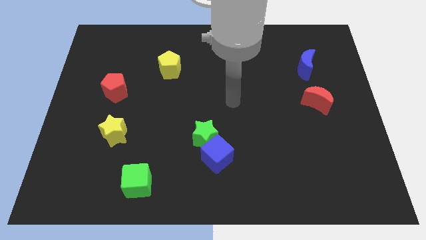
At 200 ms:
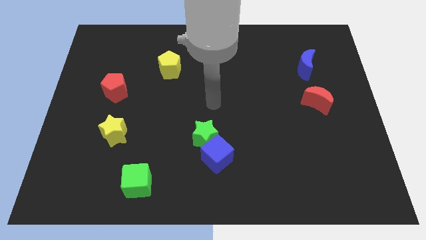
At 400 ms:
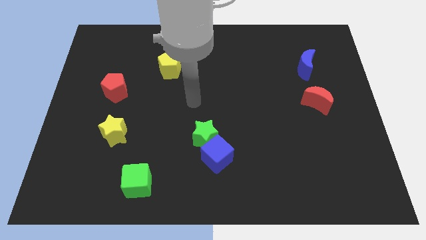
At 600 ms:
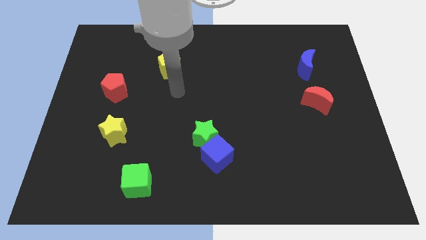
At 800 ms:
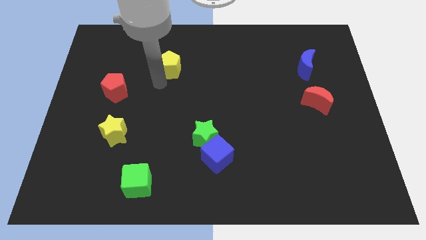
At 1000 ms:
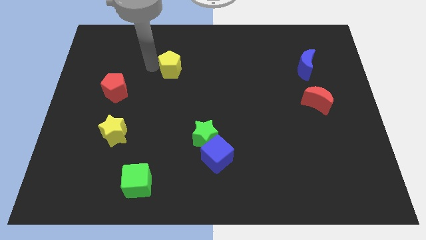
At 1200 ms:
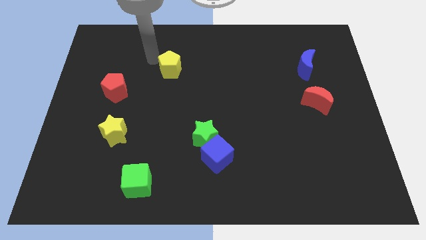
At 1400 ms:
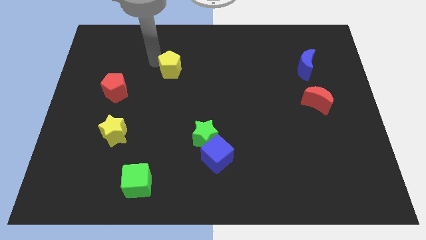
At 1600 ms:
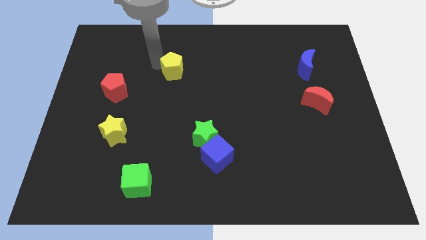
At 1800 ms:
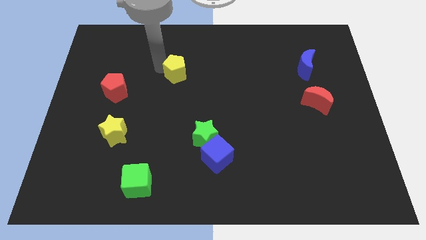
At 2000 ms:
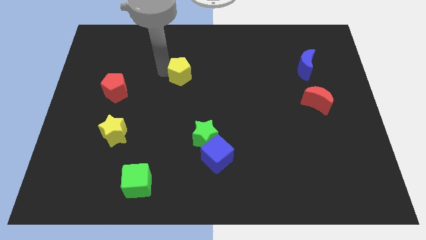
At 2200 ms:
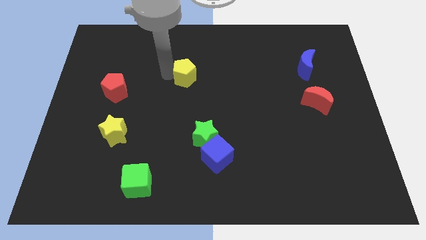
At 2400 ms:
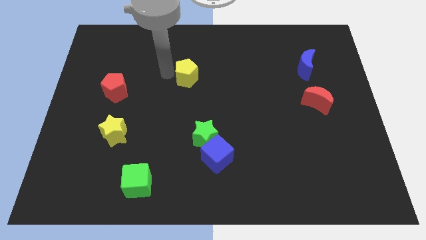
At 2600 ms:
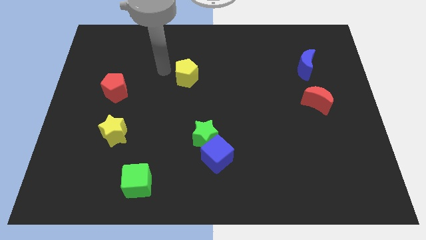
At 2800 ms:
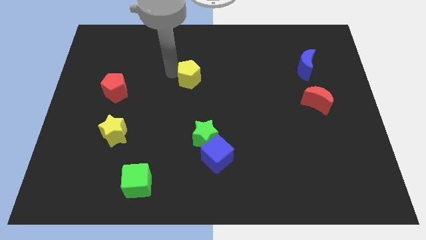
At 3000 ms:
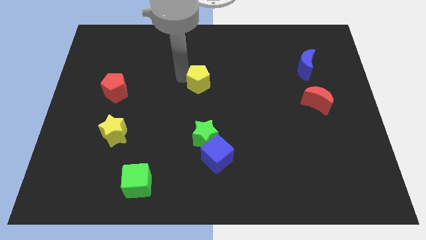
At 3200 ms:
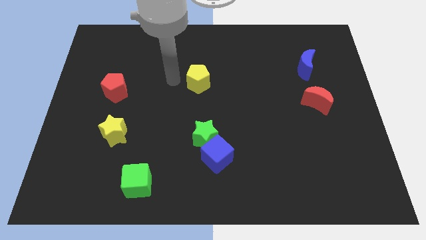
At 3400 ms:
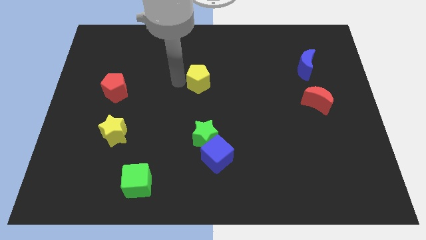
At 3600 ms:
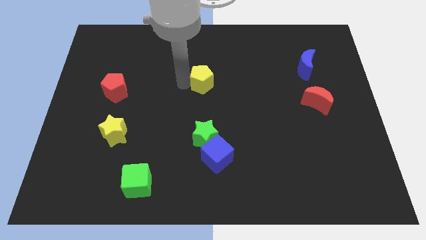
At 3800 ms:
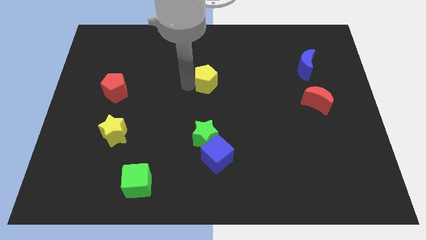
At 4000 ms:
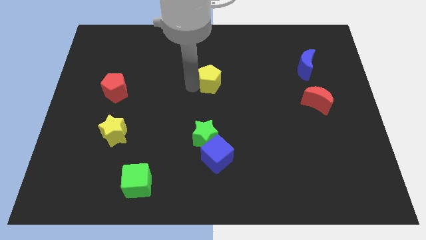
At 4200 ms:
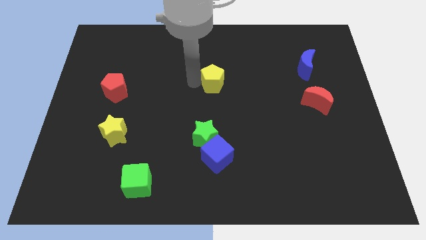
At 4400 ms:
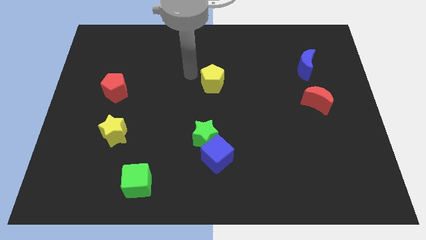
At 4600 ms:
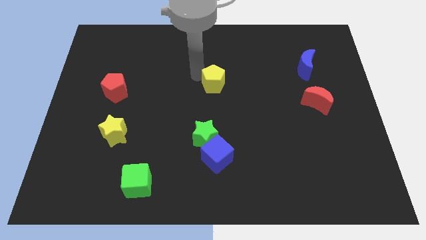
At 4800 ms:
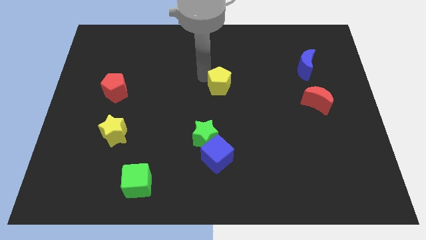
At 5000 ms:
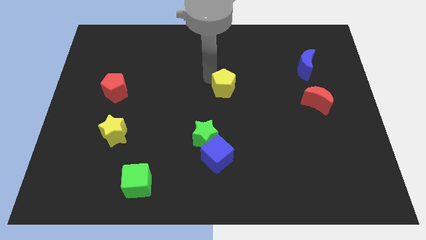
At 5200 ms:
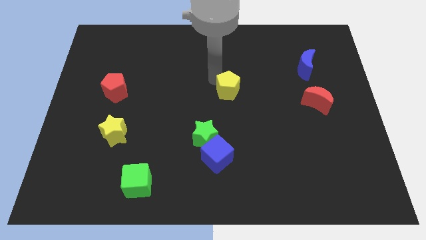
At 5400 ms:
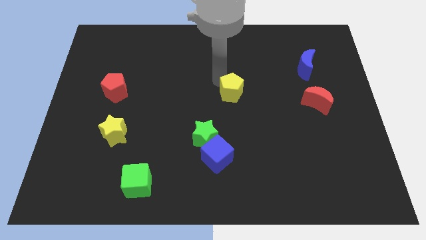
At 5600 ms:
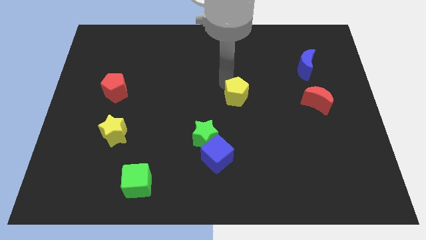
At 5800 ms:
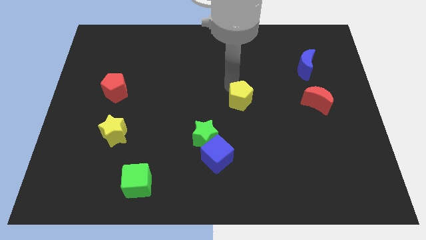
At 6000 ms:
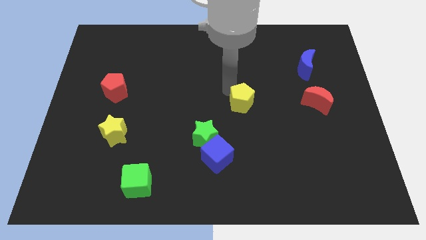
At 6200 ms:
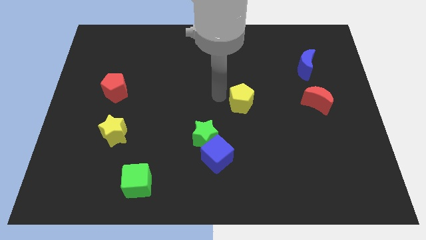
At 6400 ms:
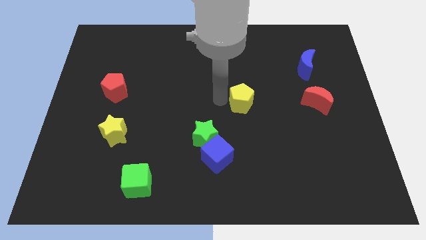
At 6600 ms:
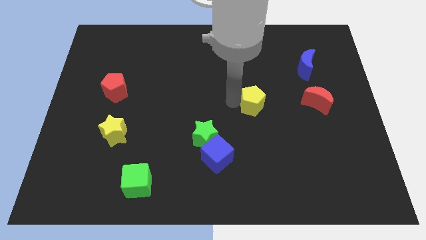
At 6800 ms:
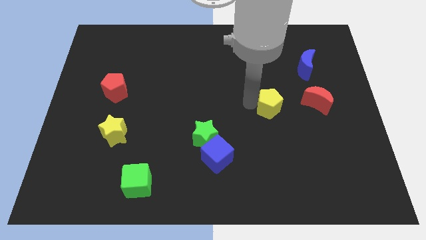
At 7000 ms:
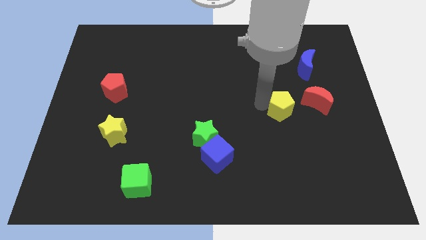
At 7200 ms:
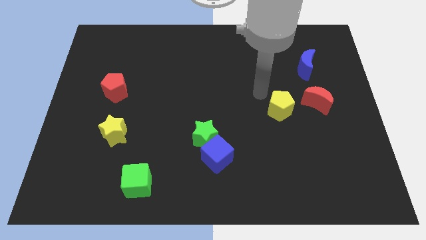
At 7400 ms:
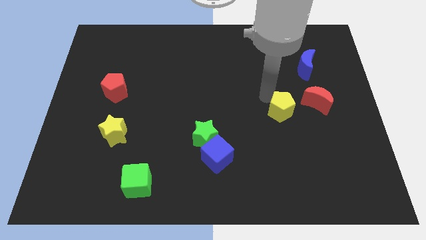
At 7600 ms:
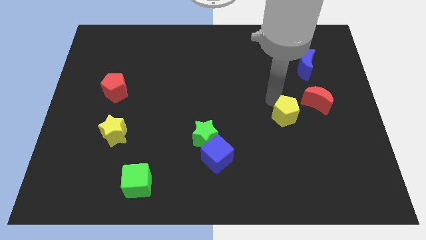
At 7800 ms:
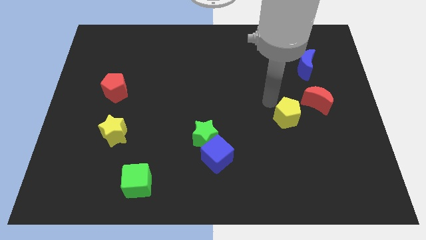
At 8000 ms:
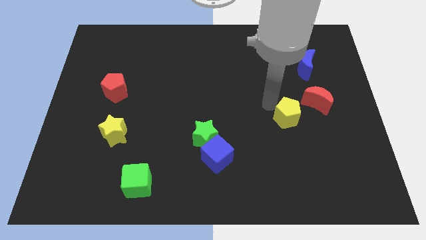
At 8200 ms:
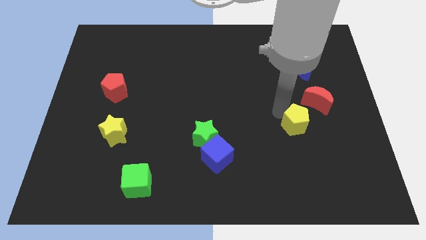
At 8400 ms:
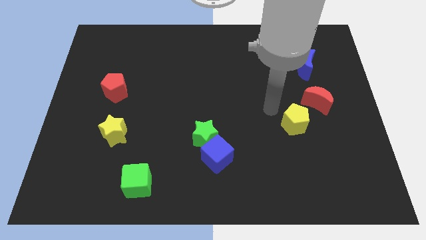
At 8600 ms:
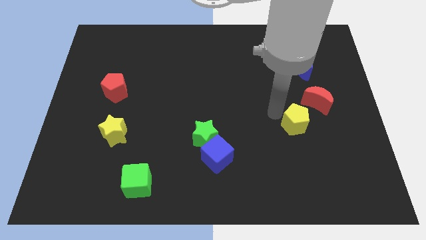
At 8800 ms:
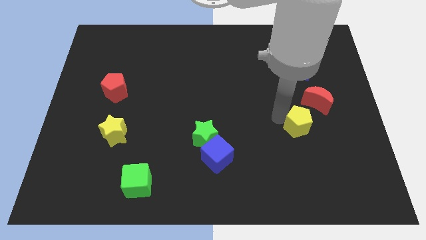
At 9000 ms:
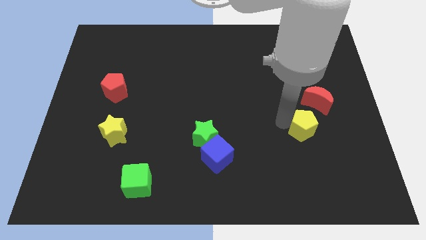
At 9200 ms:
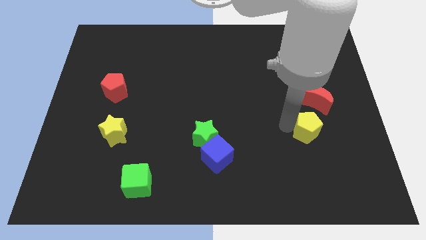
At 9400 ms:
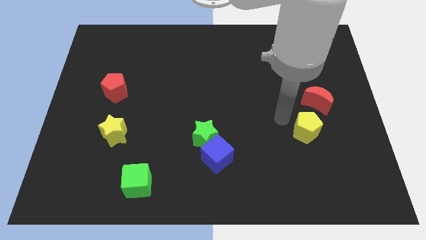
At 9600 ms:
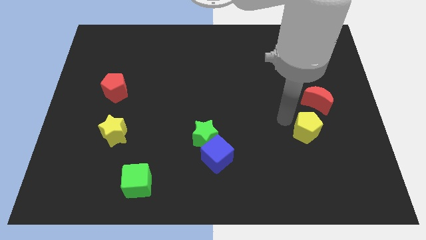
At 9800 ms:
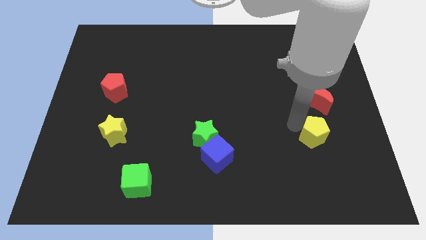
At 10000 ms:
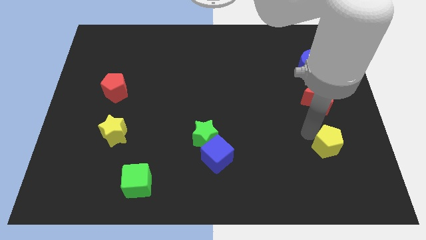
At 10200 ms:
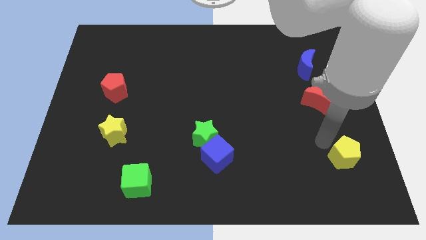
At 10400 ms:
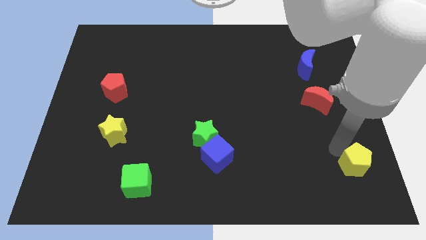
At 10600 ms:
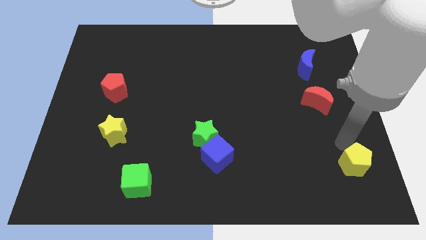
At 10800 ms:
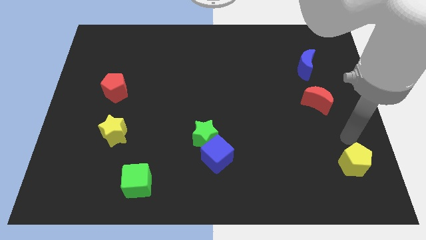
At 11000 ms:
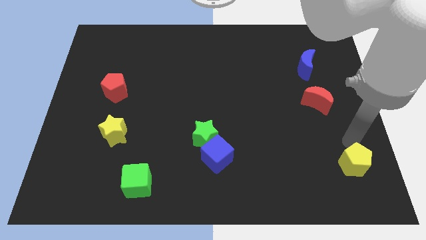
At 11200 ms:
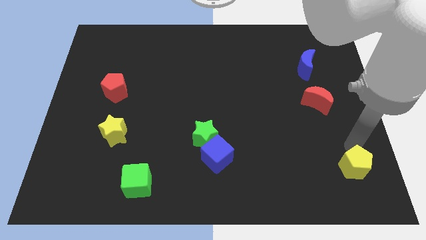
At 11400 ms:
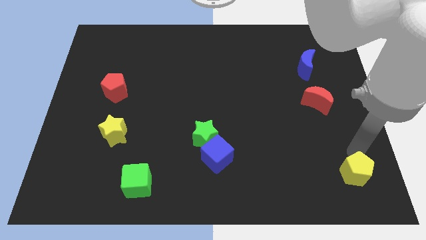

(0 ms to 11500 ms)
slide the yellow pentagon to the bottom right

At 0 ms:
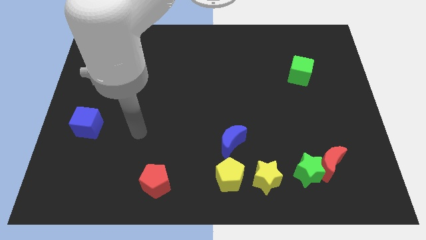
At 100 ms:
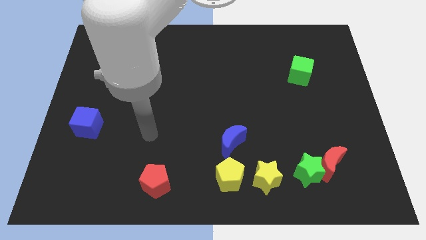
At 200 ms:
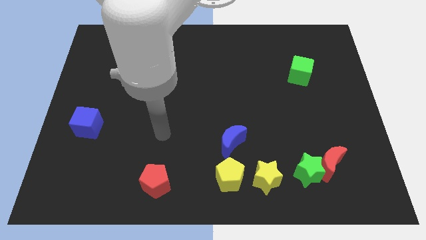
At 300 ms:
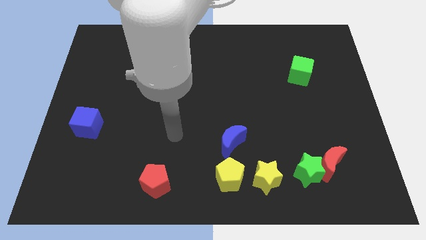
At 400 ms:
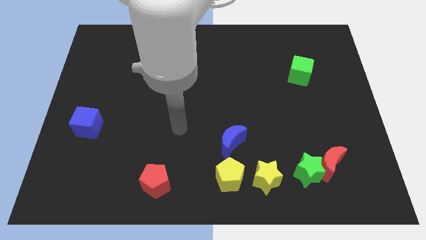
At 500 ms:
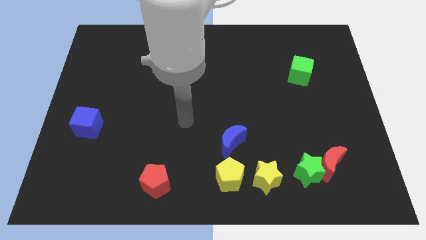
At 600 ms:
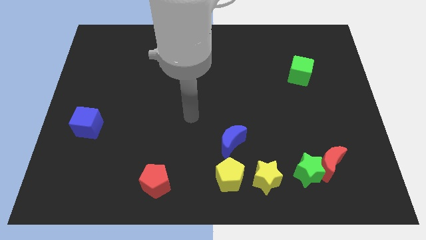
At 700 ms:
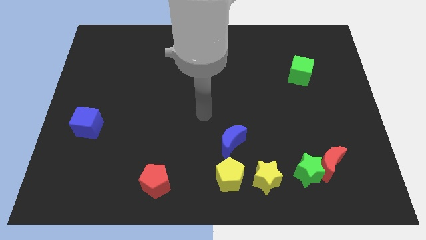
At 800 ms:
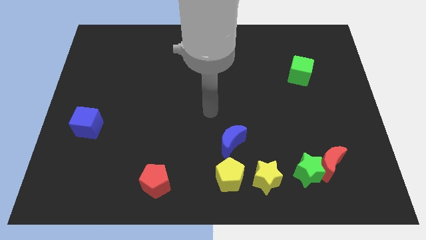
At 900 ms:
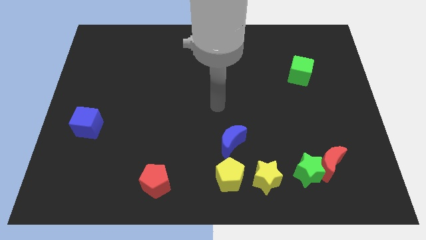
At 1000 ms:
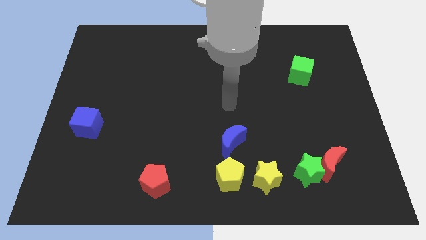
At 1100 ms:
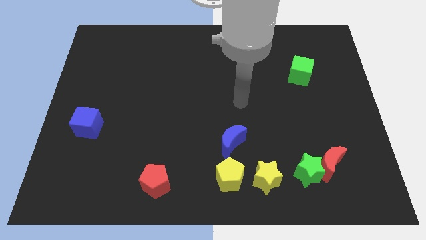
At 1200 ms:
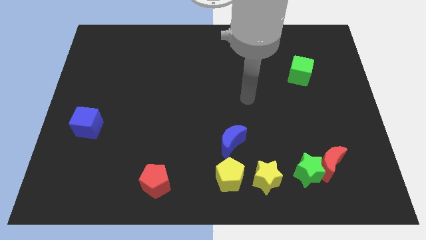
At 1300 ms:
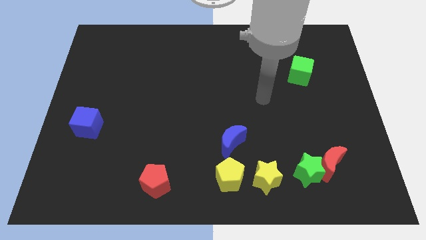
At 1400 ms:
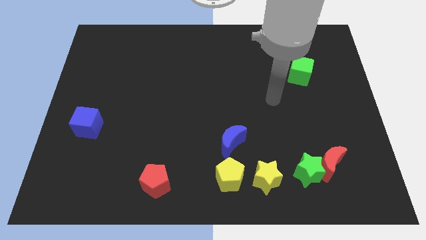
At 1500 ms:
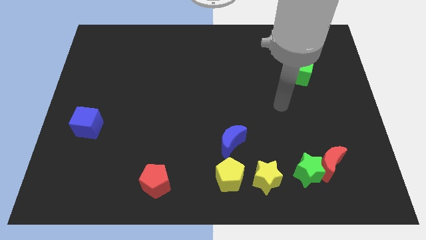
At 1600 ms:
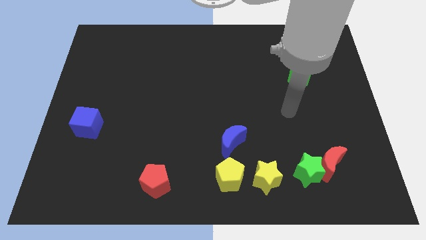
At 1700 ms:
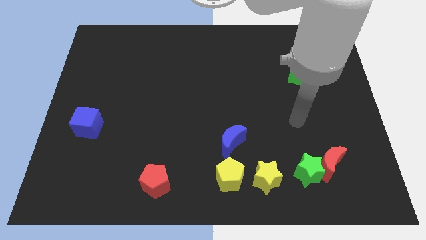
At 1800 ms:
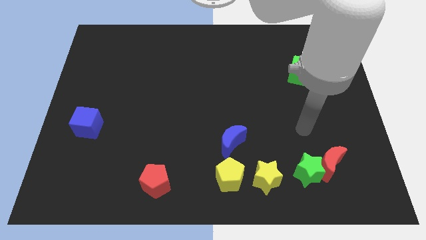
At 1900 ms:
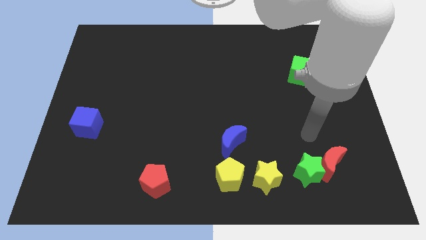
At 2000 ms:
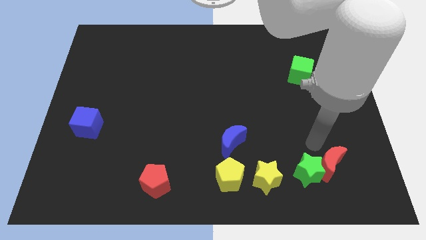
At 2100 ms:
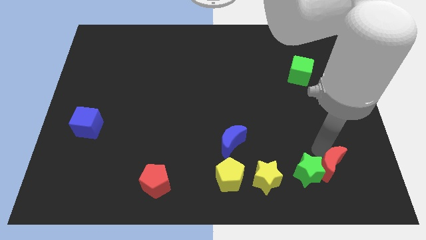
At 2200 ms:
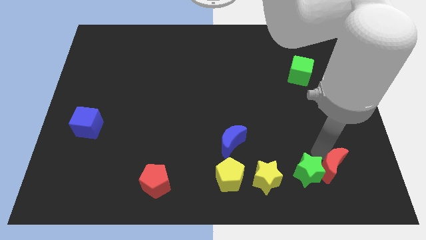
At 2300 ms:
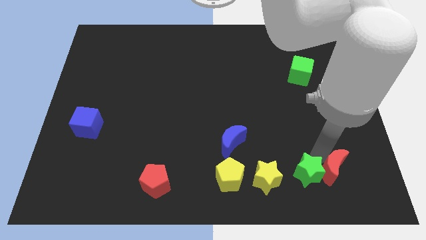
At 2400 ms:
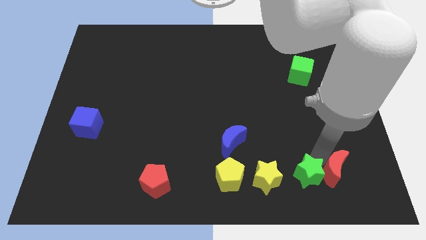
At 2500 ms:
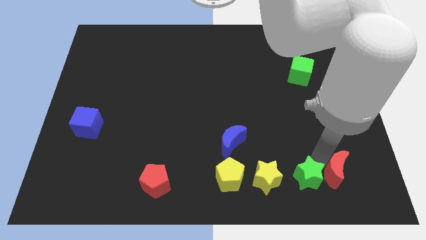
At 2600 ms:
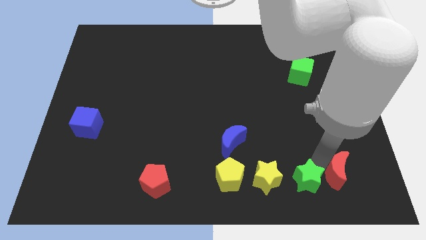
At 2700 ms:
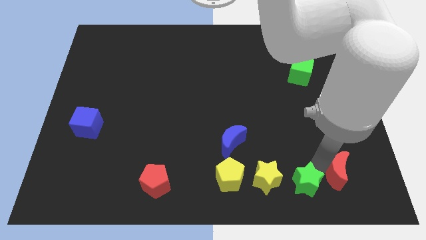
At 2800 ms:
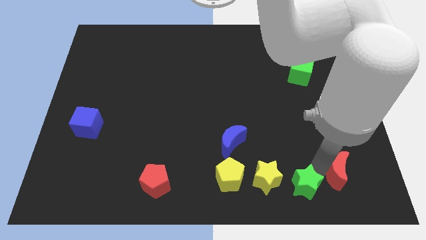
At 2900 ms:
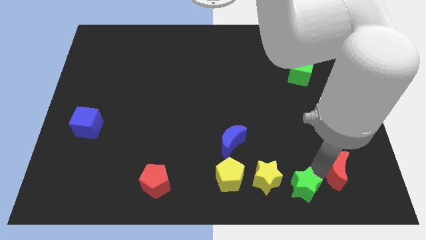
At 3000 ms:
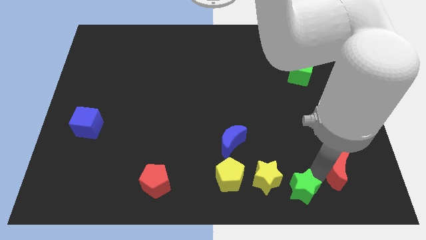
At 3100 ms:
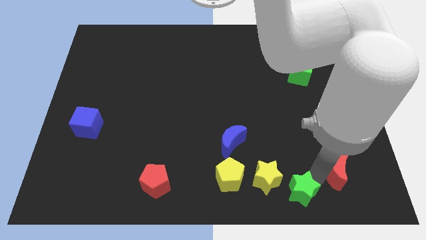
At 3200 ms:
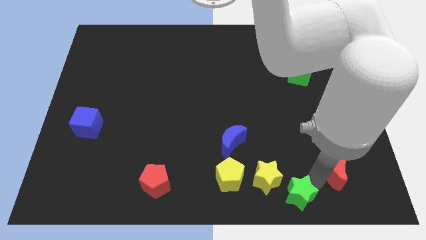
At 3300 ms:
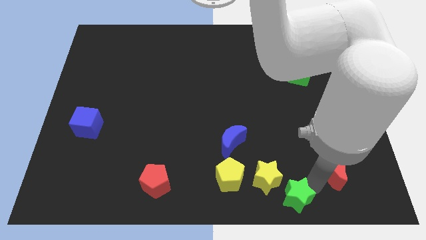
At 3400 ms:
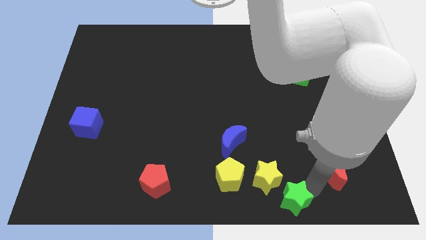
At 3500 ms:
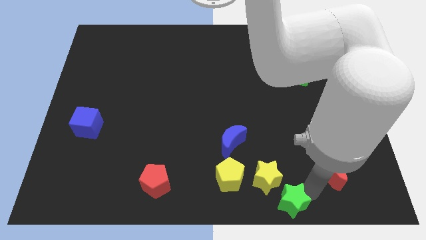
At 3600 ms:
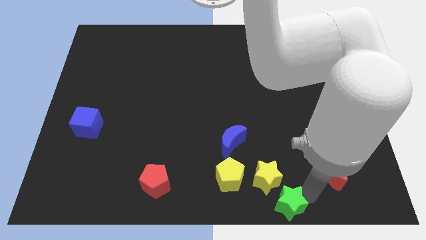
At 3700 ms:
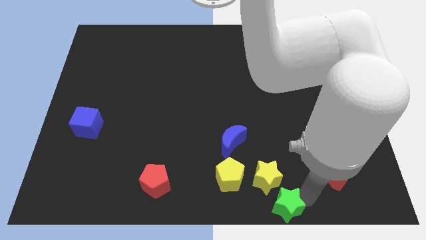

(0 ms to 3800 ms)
move the green star to the bottom side
